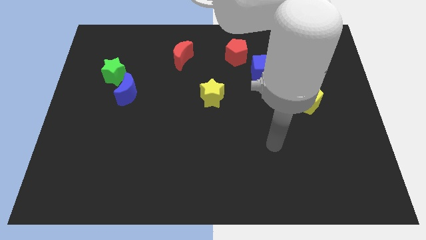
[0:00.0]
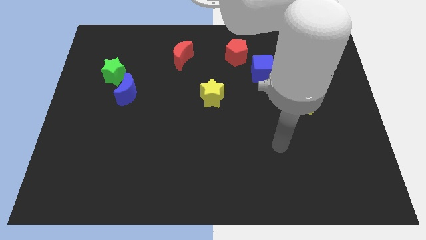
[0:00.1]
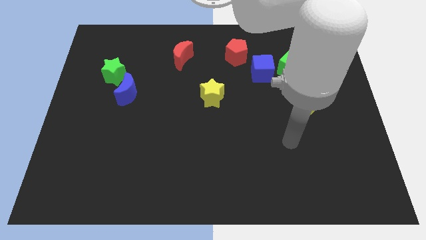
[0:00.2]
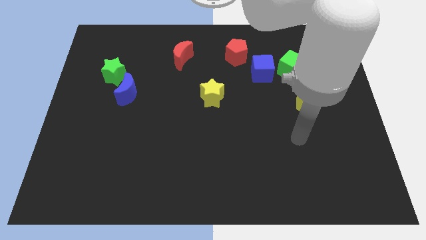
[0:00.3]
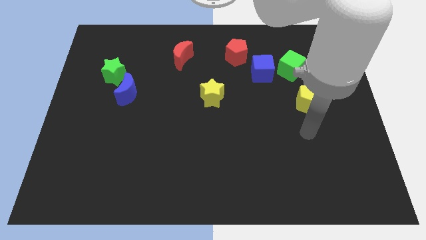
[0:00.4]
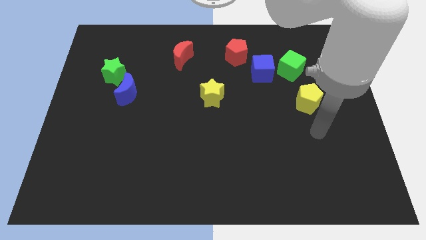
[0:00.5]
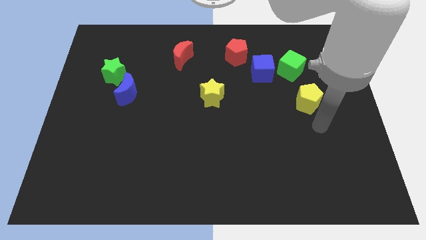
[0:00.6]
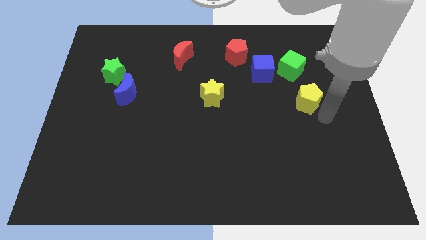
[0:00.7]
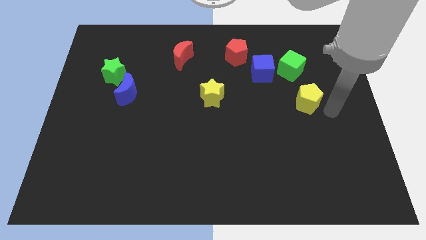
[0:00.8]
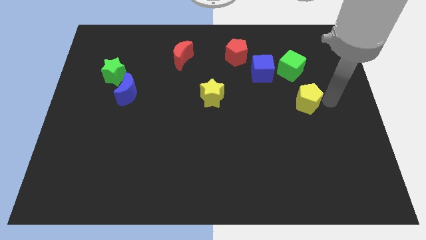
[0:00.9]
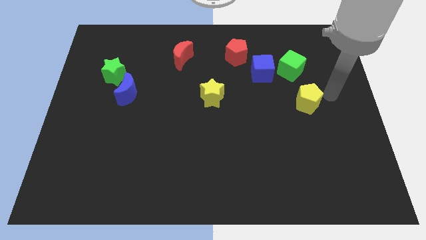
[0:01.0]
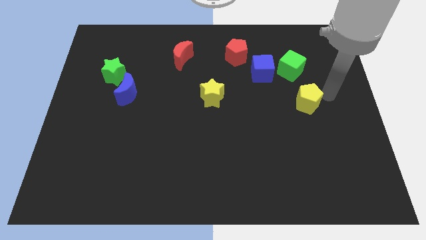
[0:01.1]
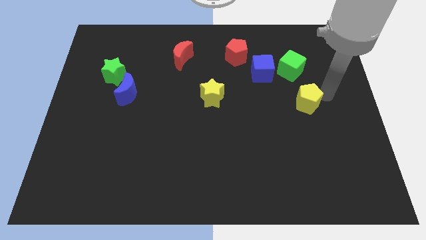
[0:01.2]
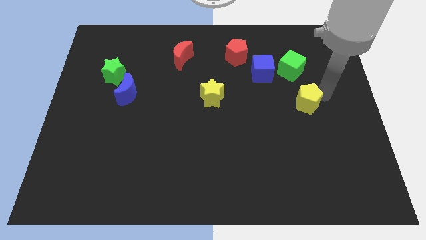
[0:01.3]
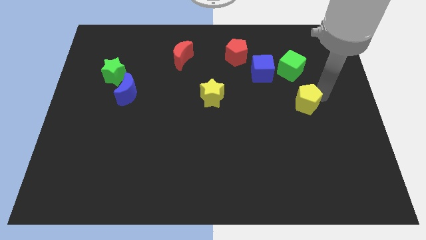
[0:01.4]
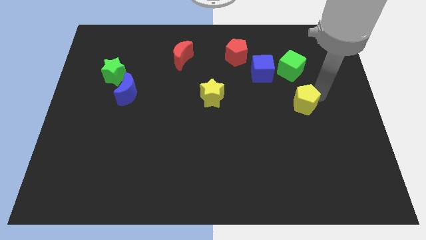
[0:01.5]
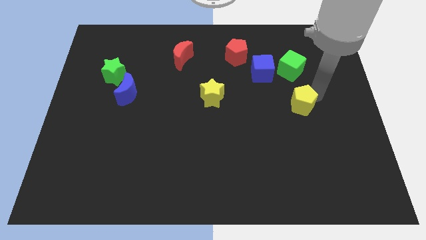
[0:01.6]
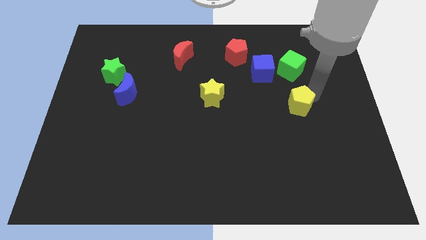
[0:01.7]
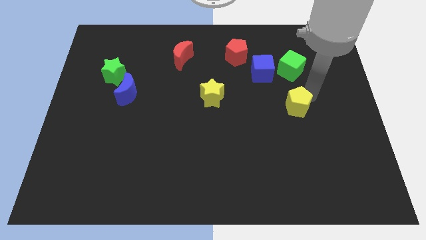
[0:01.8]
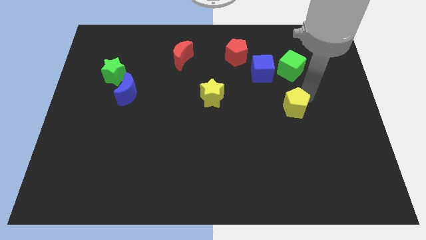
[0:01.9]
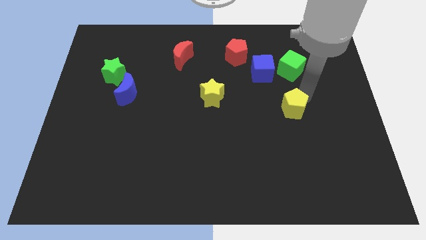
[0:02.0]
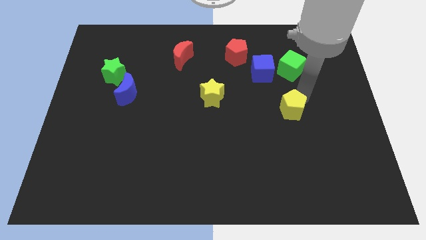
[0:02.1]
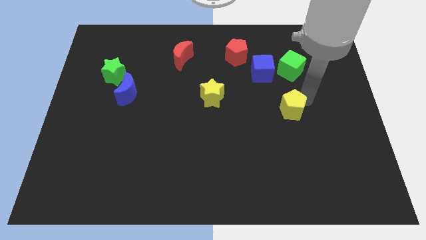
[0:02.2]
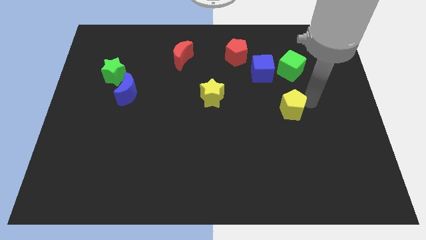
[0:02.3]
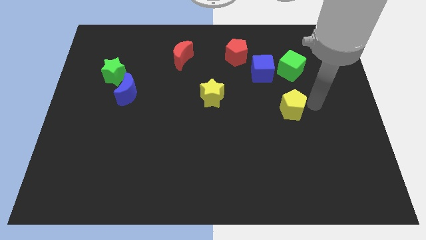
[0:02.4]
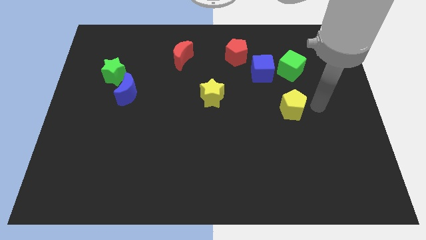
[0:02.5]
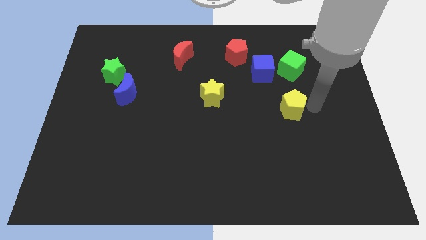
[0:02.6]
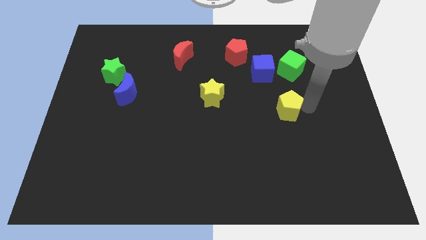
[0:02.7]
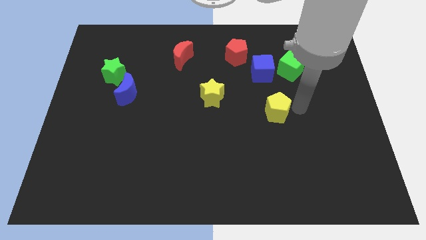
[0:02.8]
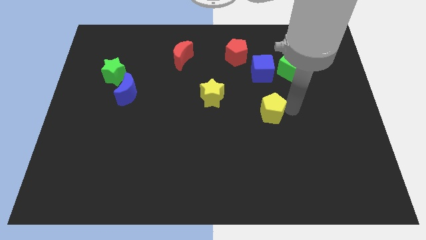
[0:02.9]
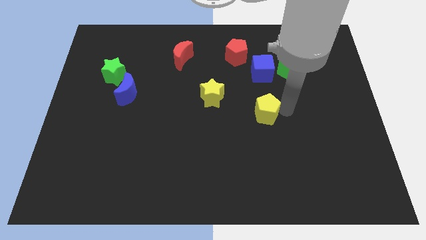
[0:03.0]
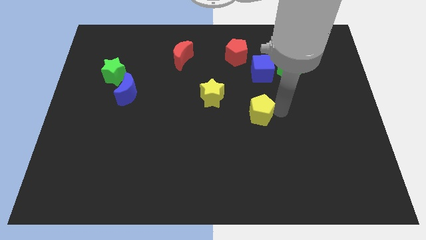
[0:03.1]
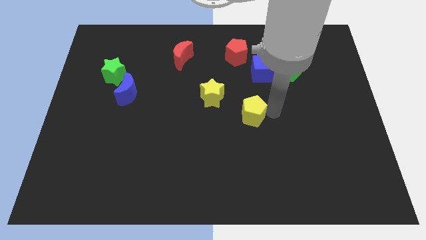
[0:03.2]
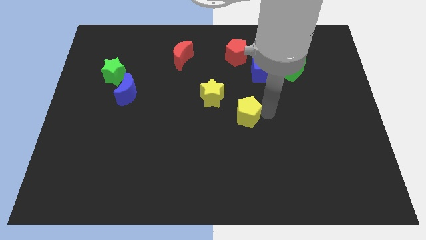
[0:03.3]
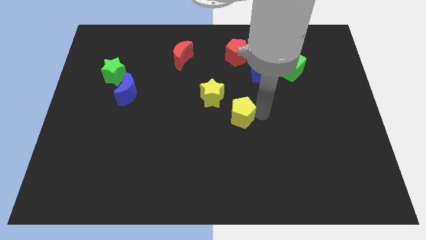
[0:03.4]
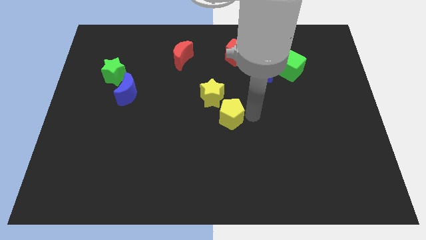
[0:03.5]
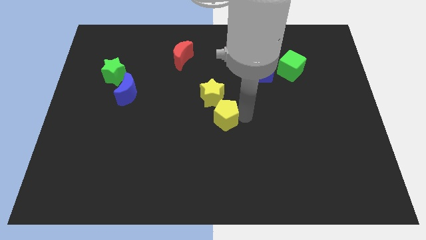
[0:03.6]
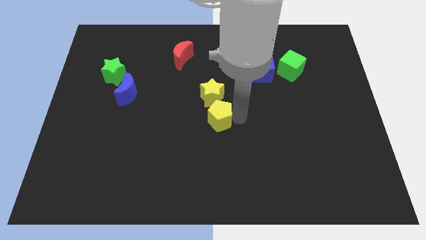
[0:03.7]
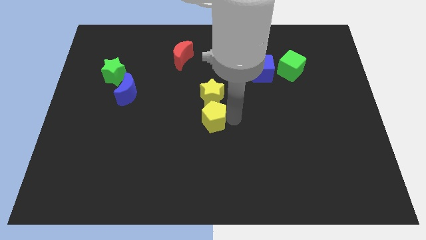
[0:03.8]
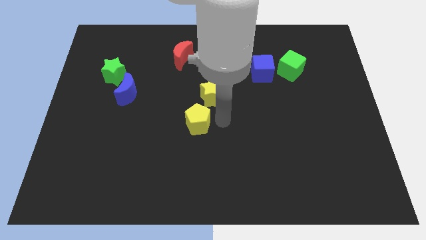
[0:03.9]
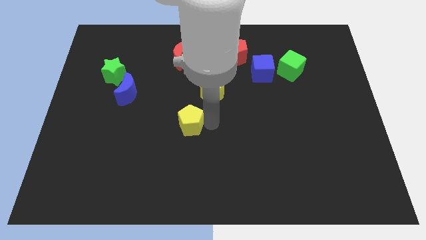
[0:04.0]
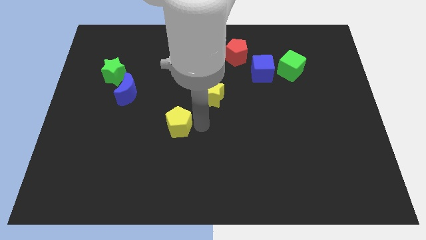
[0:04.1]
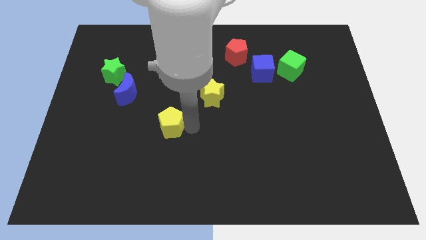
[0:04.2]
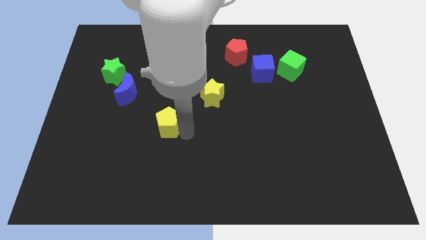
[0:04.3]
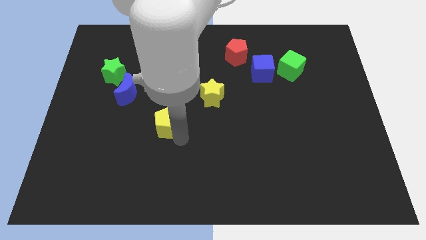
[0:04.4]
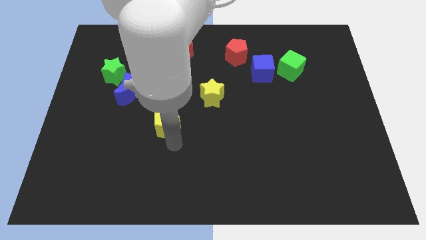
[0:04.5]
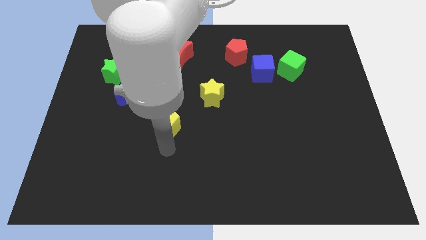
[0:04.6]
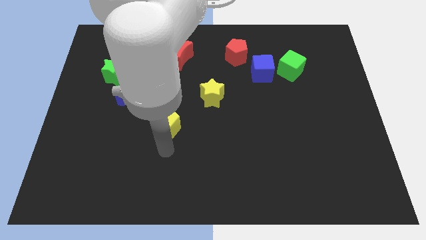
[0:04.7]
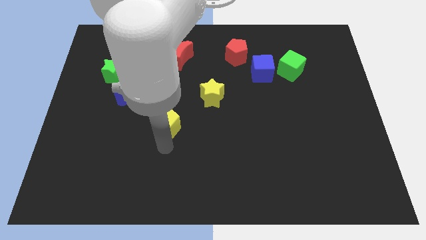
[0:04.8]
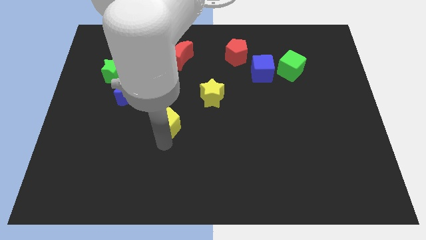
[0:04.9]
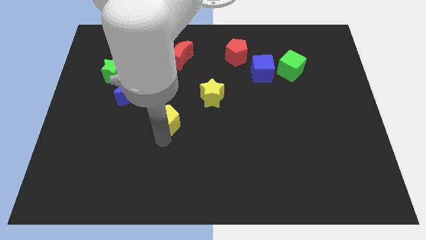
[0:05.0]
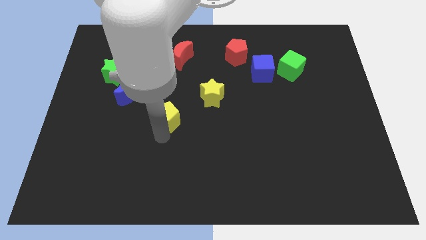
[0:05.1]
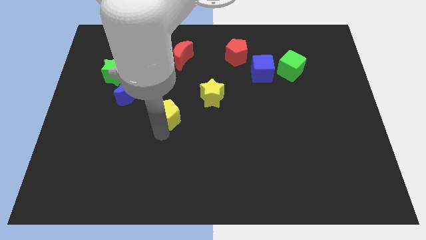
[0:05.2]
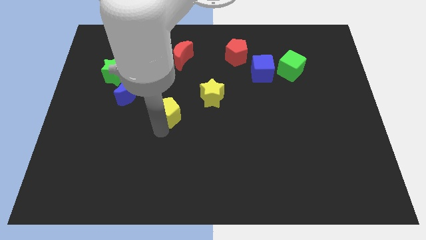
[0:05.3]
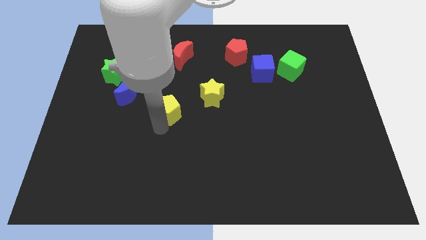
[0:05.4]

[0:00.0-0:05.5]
move the yellow pentagon to the left of the yellow star

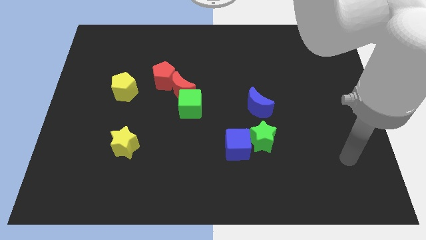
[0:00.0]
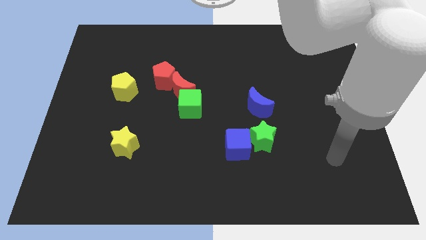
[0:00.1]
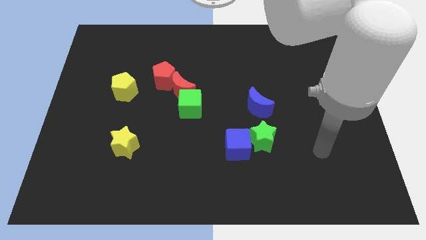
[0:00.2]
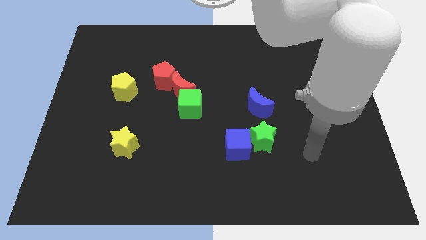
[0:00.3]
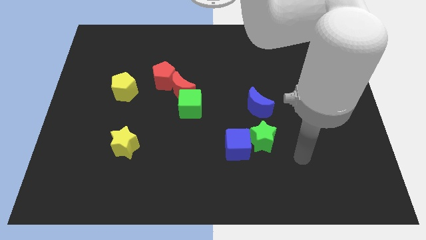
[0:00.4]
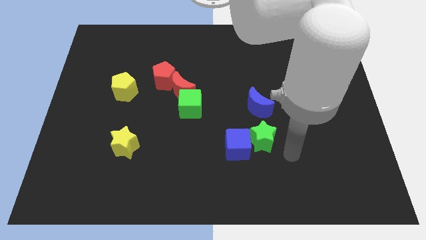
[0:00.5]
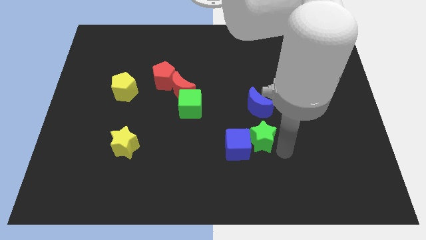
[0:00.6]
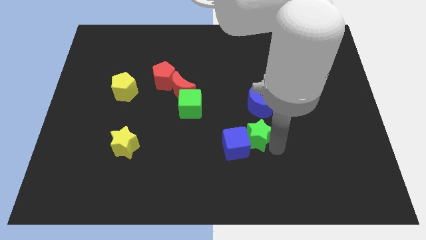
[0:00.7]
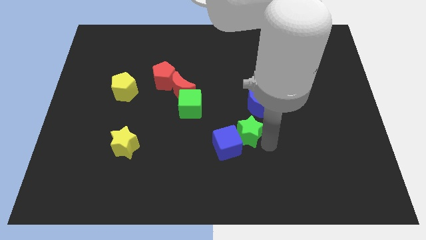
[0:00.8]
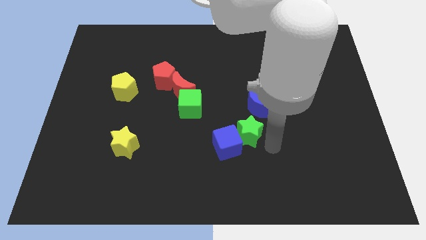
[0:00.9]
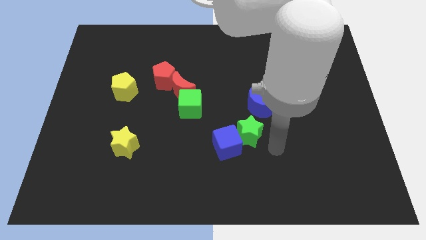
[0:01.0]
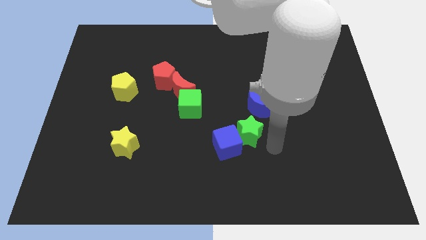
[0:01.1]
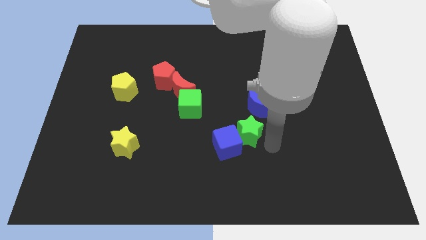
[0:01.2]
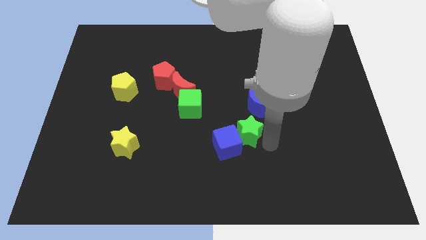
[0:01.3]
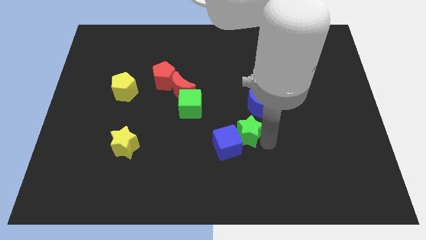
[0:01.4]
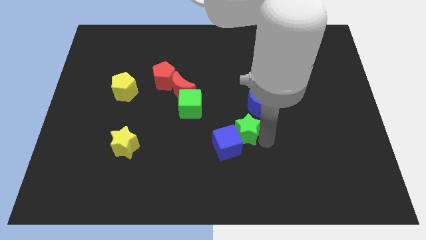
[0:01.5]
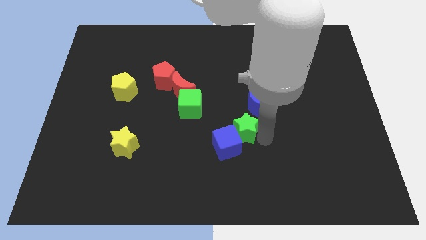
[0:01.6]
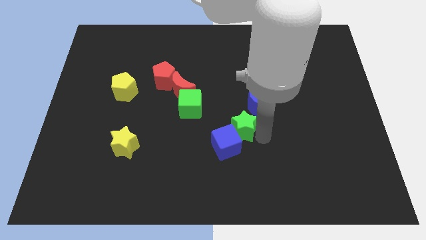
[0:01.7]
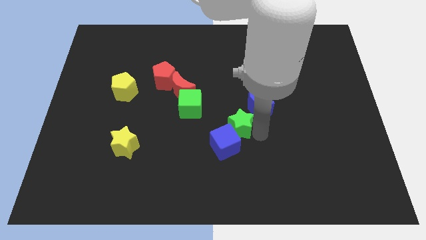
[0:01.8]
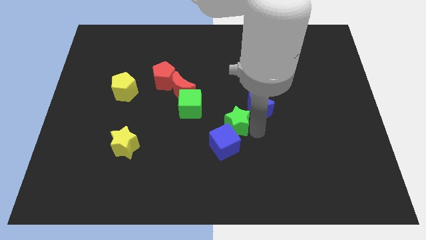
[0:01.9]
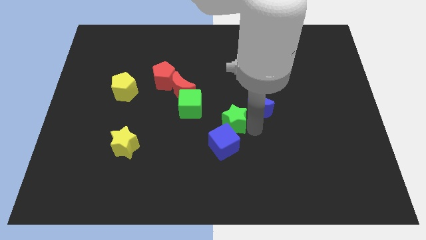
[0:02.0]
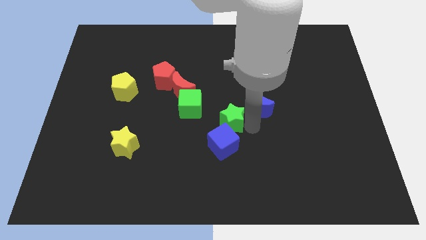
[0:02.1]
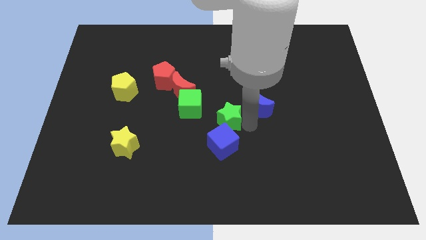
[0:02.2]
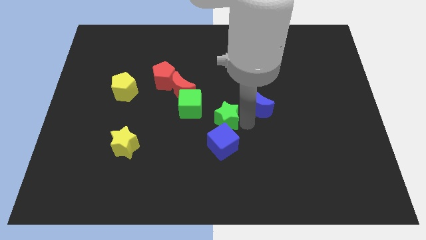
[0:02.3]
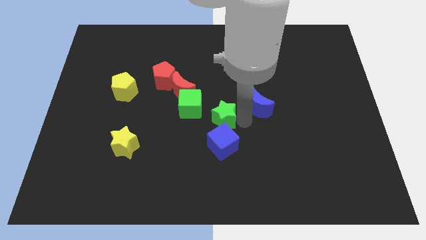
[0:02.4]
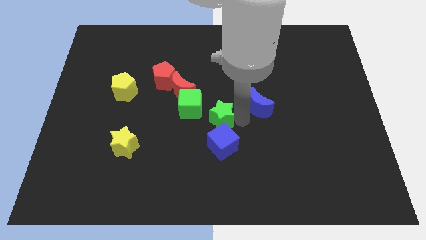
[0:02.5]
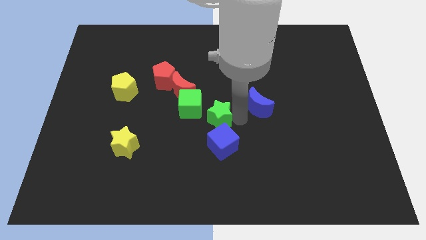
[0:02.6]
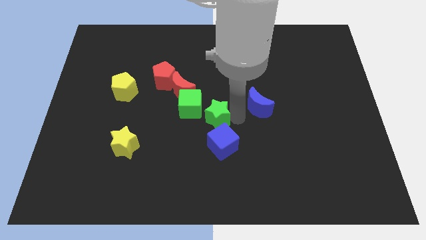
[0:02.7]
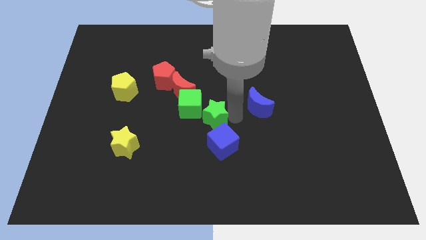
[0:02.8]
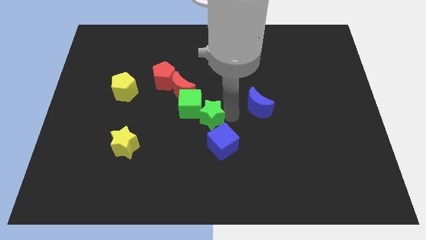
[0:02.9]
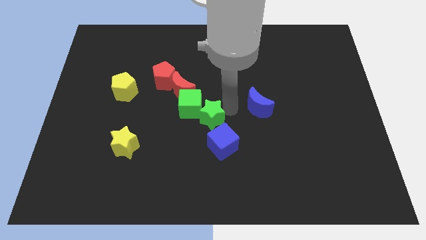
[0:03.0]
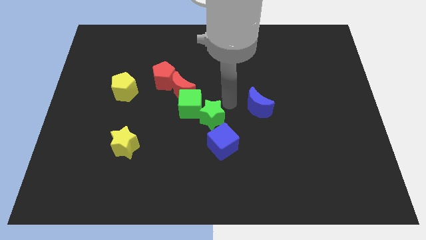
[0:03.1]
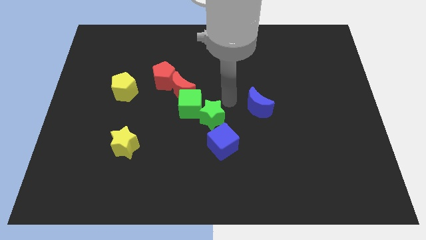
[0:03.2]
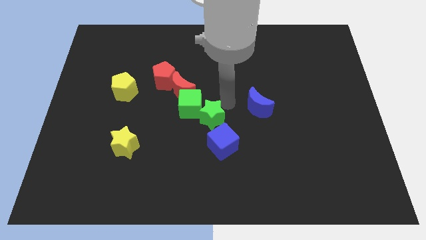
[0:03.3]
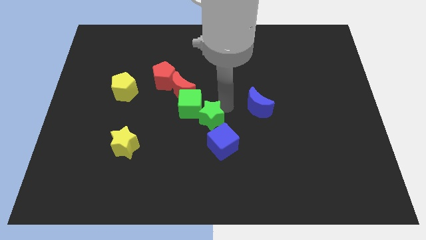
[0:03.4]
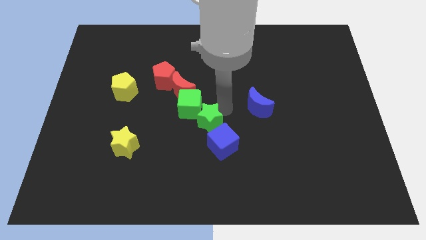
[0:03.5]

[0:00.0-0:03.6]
put the green star below the green cube
